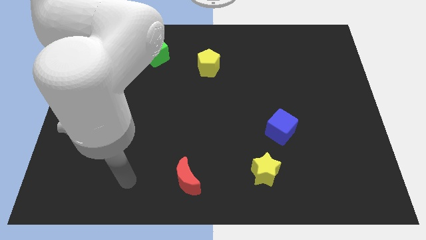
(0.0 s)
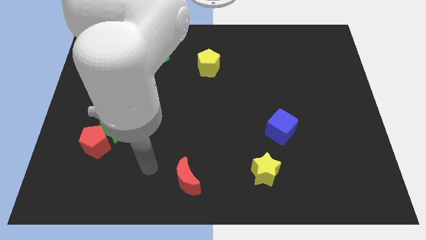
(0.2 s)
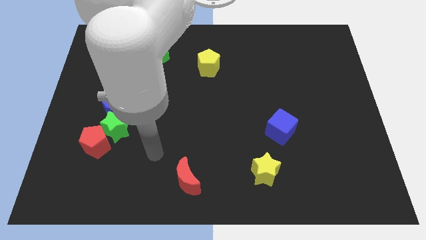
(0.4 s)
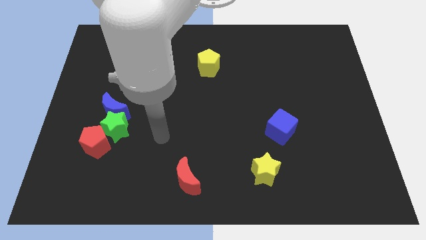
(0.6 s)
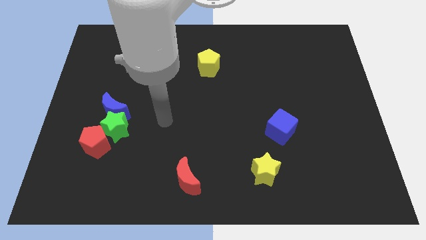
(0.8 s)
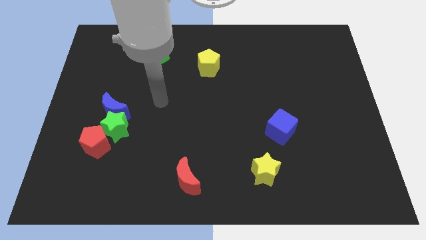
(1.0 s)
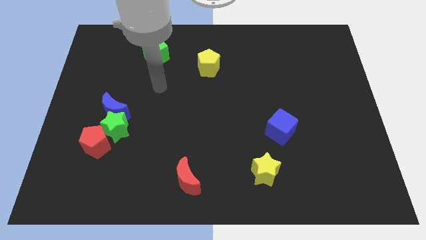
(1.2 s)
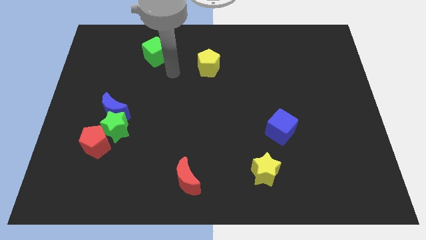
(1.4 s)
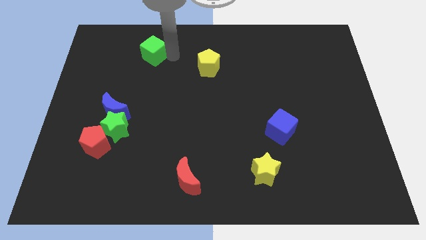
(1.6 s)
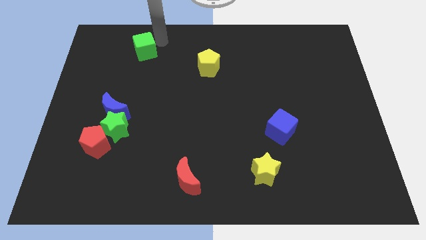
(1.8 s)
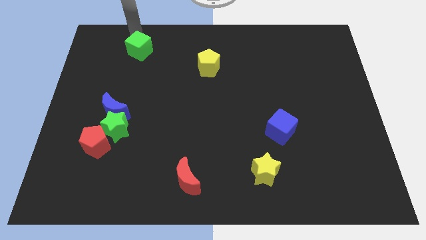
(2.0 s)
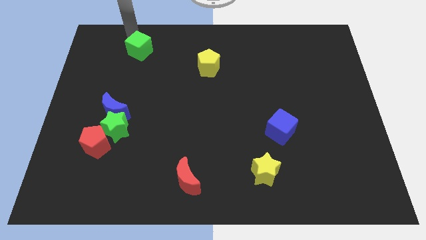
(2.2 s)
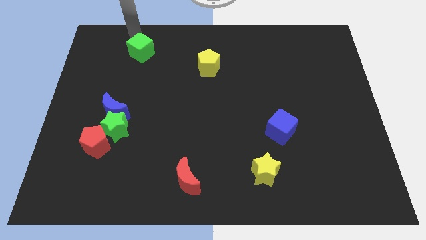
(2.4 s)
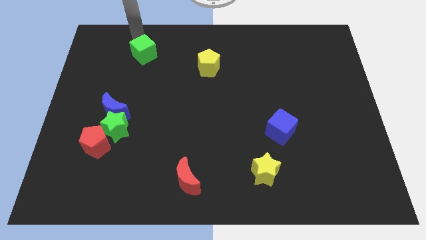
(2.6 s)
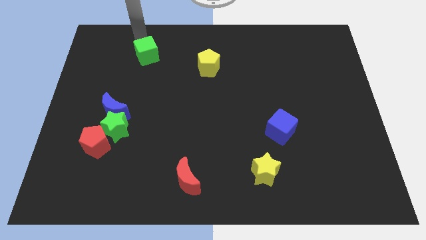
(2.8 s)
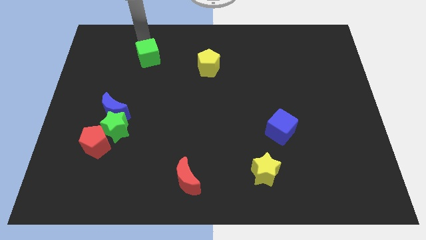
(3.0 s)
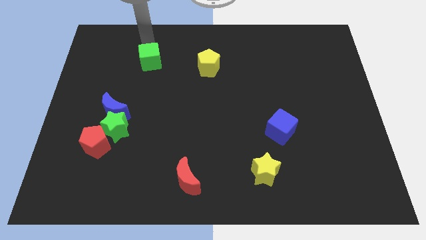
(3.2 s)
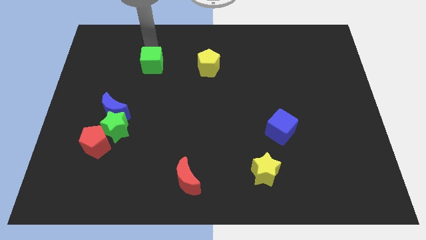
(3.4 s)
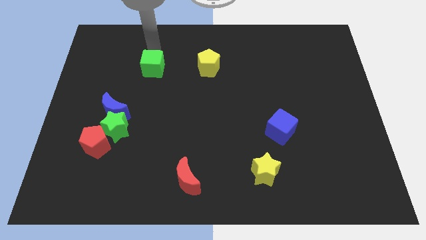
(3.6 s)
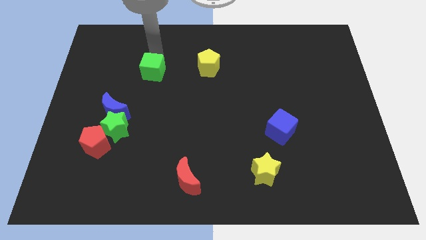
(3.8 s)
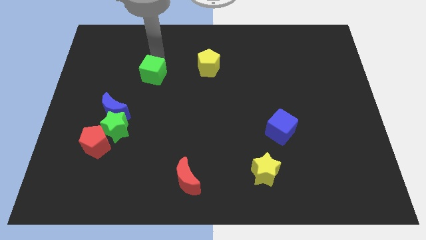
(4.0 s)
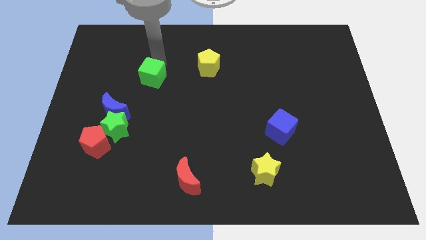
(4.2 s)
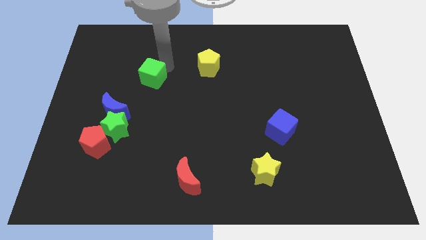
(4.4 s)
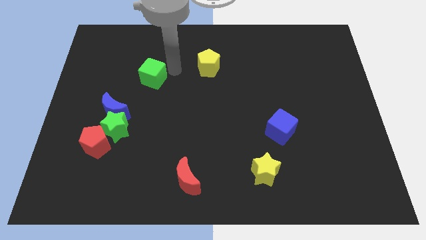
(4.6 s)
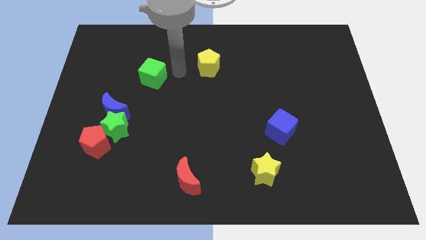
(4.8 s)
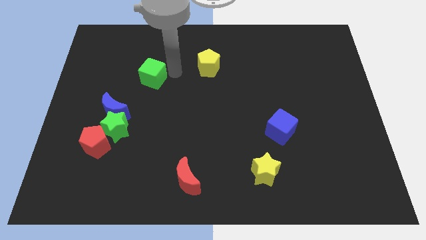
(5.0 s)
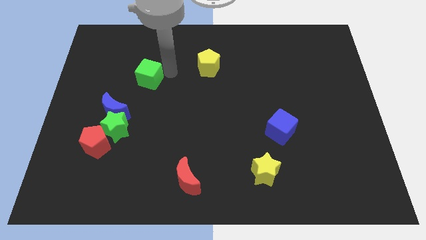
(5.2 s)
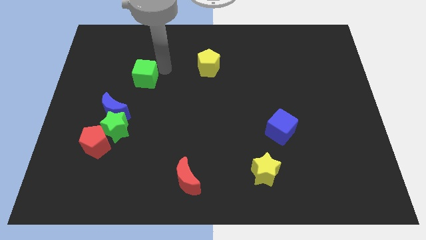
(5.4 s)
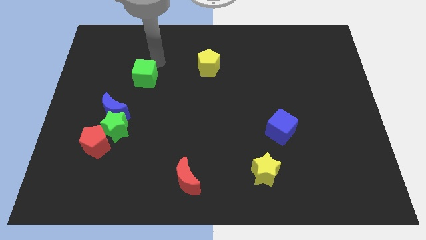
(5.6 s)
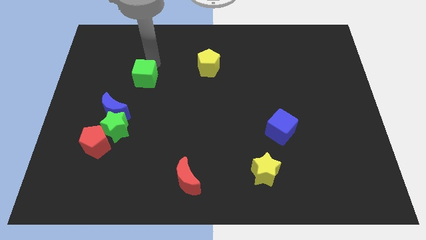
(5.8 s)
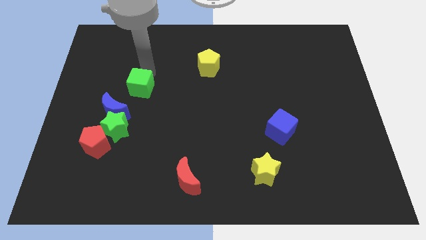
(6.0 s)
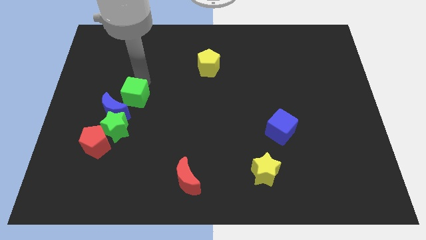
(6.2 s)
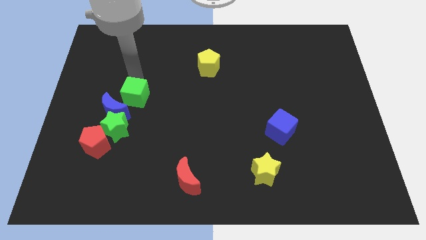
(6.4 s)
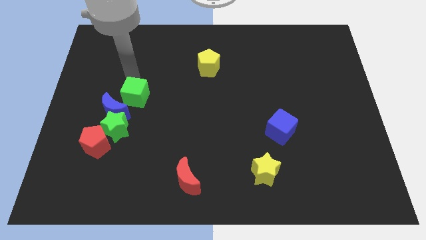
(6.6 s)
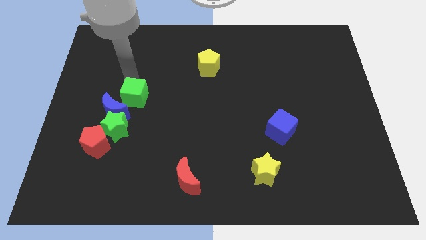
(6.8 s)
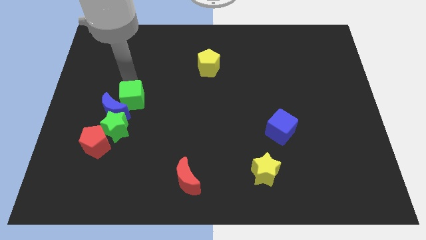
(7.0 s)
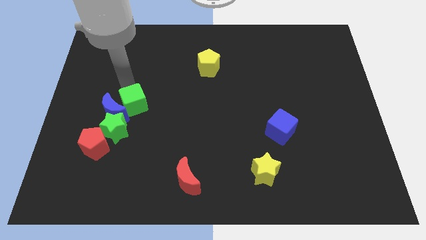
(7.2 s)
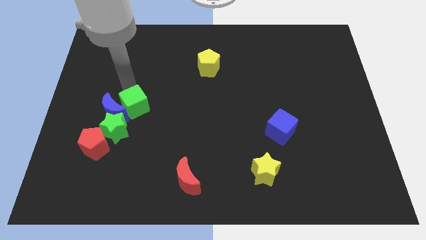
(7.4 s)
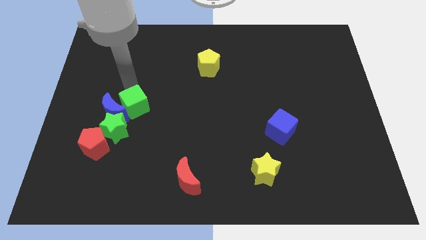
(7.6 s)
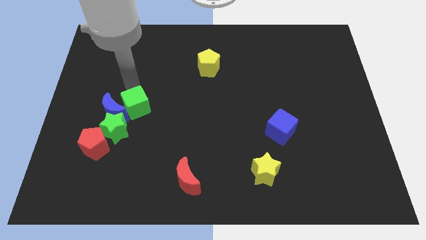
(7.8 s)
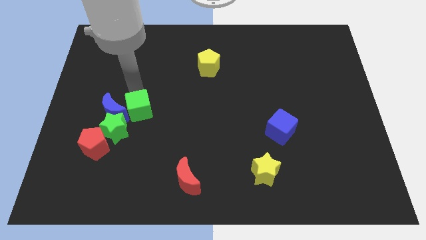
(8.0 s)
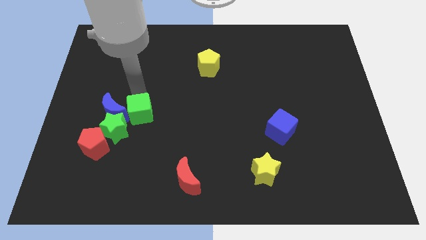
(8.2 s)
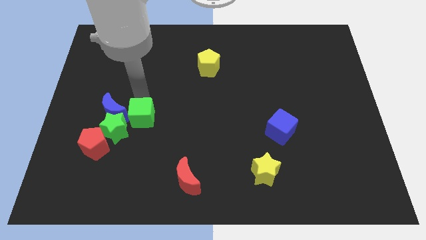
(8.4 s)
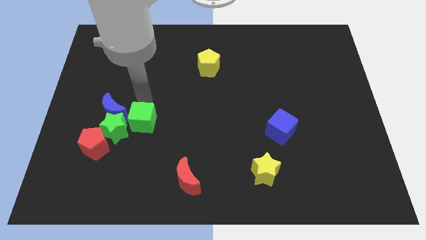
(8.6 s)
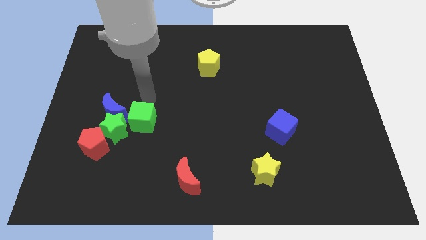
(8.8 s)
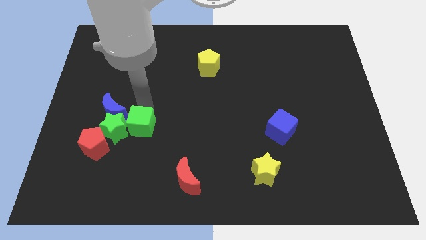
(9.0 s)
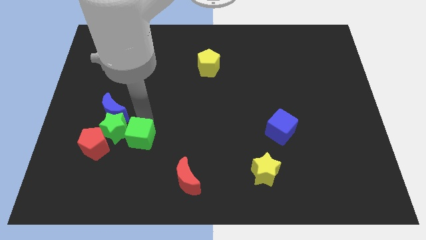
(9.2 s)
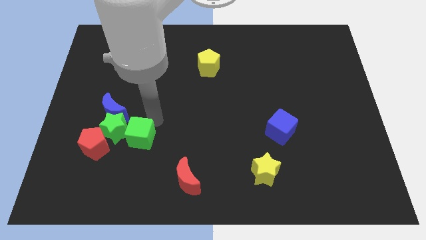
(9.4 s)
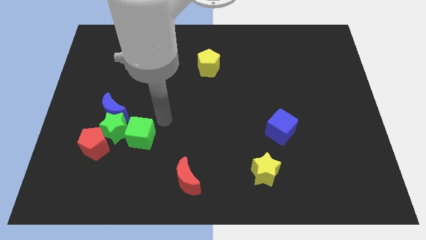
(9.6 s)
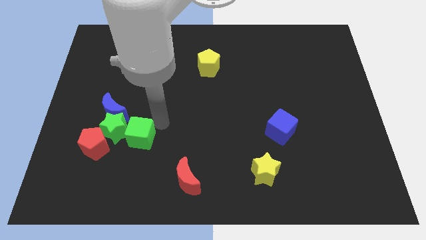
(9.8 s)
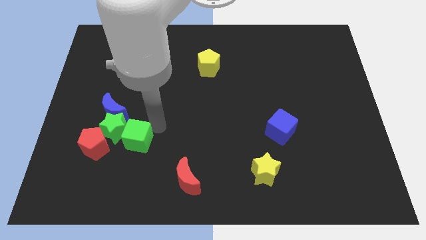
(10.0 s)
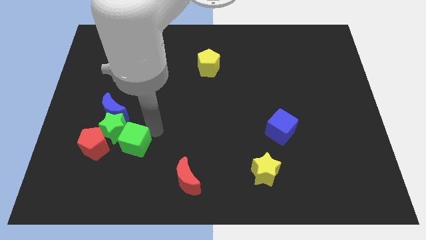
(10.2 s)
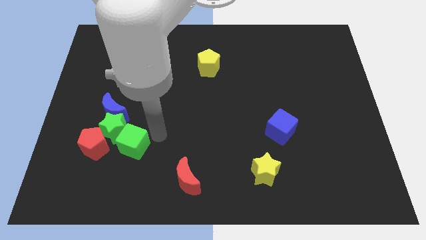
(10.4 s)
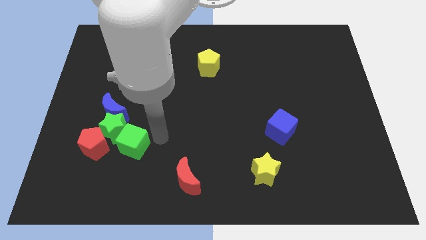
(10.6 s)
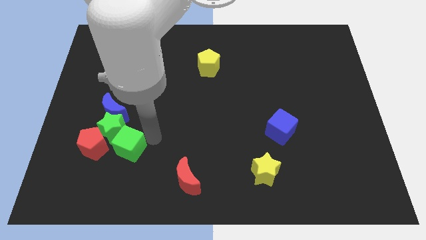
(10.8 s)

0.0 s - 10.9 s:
slide the green cube to the bottom of the blue moon

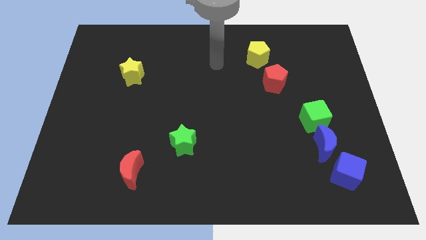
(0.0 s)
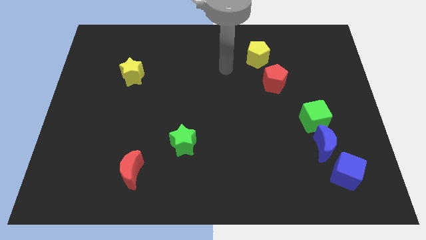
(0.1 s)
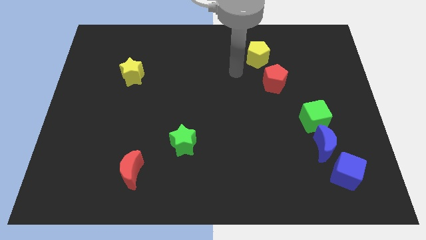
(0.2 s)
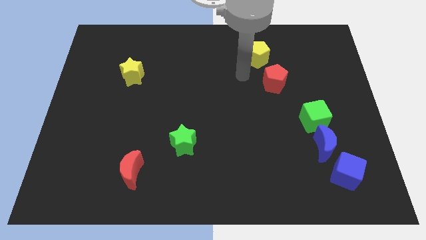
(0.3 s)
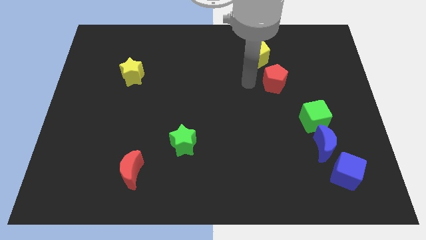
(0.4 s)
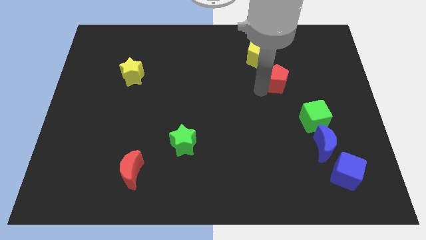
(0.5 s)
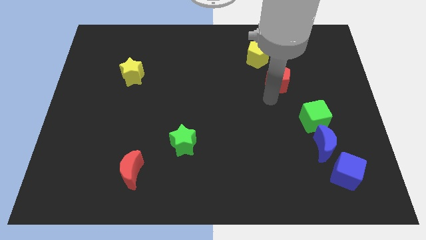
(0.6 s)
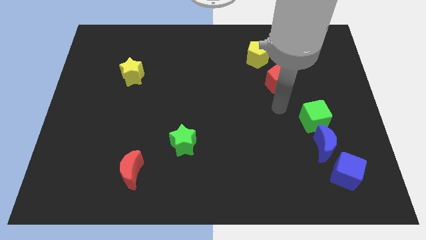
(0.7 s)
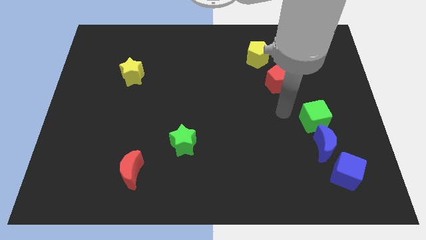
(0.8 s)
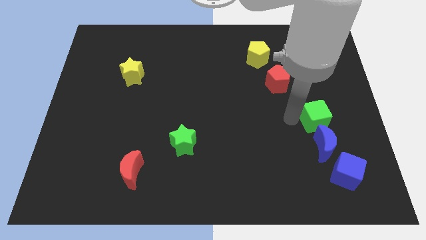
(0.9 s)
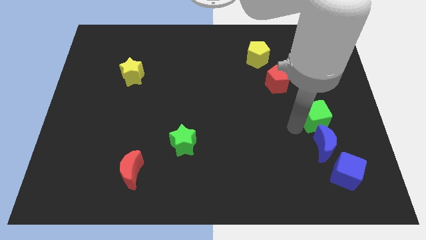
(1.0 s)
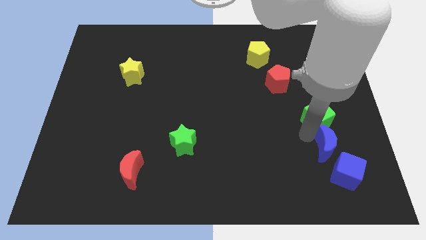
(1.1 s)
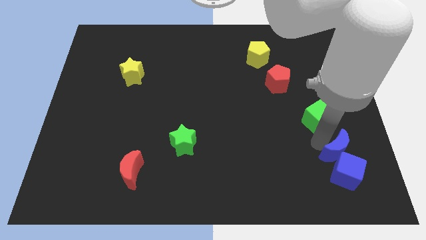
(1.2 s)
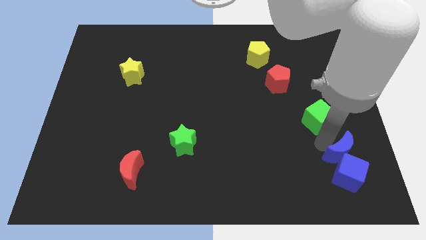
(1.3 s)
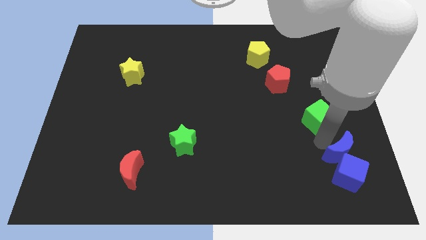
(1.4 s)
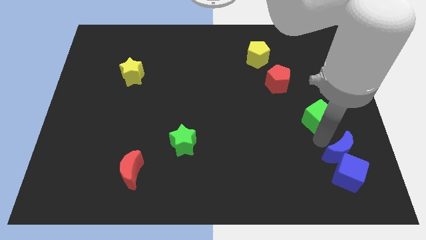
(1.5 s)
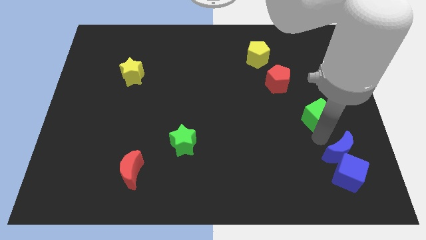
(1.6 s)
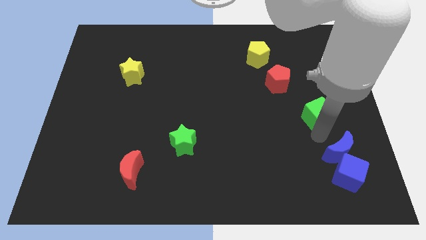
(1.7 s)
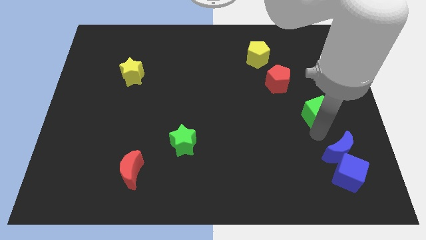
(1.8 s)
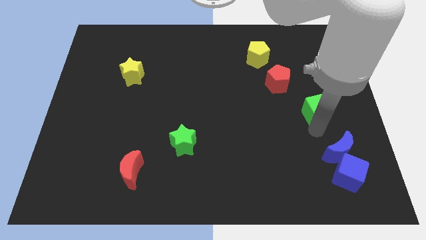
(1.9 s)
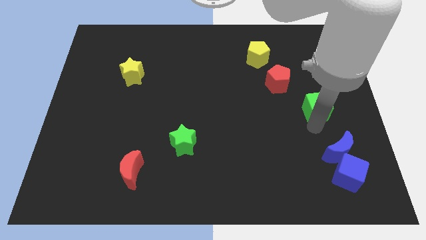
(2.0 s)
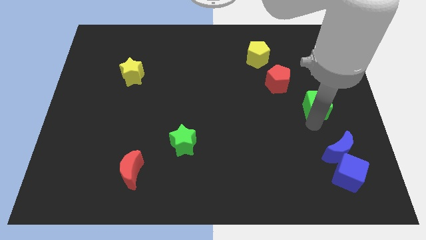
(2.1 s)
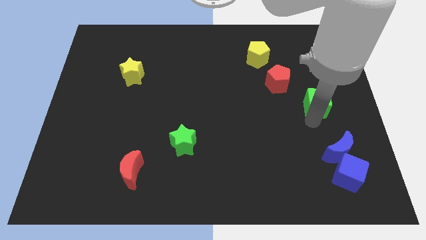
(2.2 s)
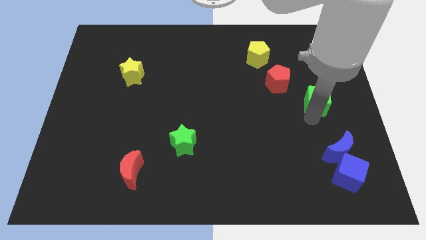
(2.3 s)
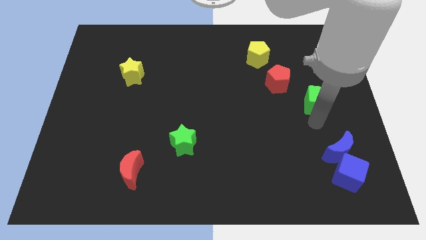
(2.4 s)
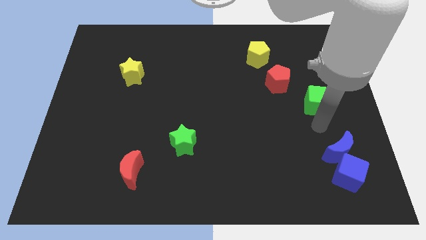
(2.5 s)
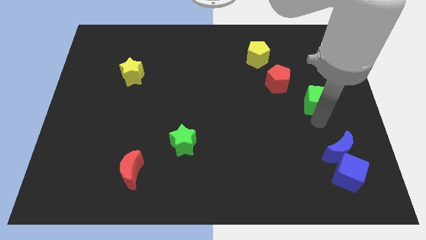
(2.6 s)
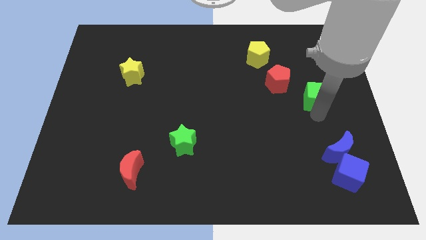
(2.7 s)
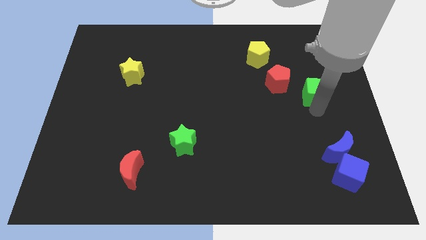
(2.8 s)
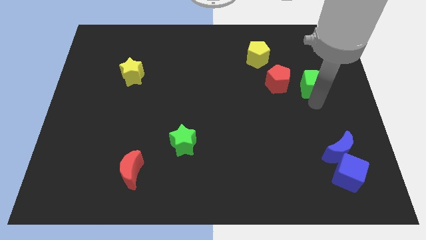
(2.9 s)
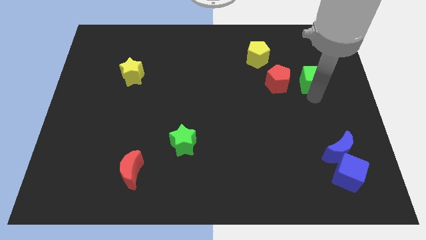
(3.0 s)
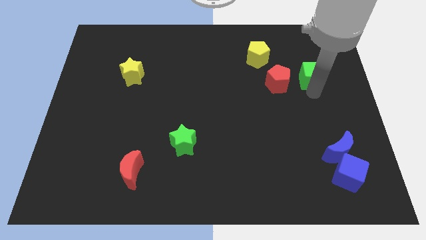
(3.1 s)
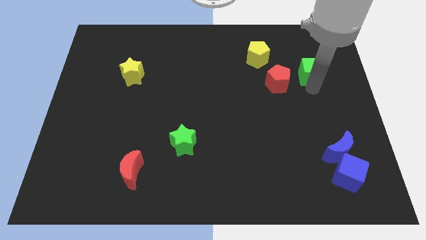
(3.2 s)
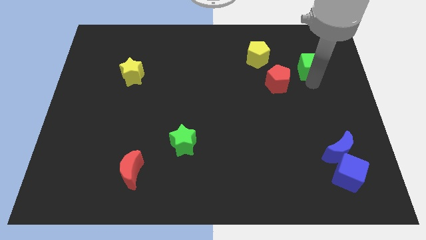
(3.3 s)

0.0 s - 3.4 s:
move the green cube just right of the yellow pentagon
